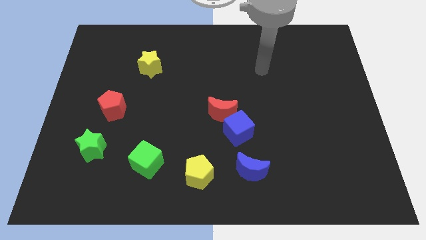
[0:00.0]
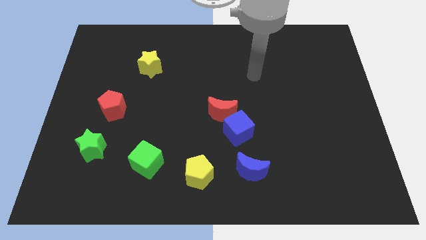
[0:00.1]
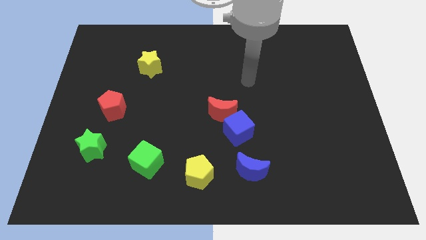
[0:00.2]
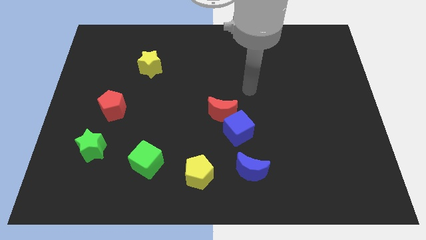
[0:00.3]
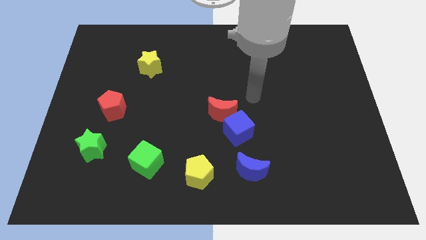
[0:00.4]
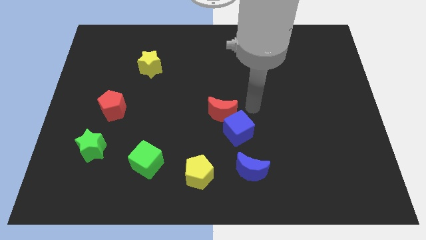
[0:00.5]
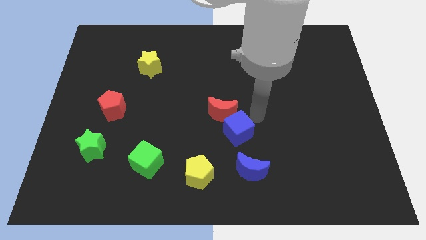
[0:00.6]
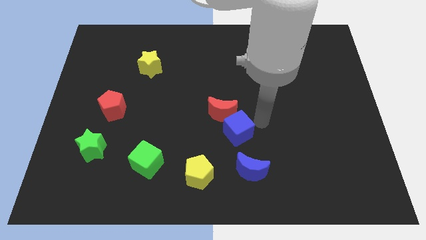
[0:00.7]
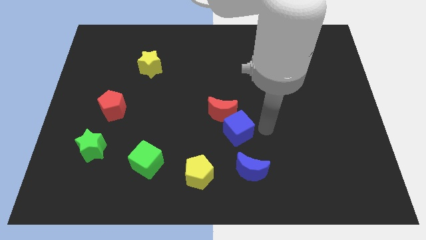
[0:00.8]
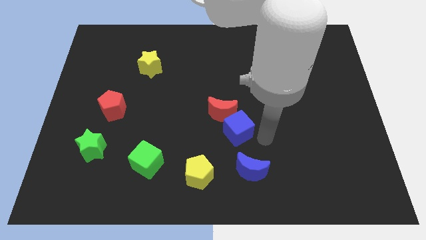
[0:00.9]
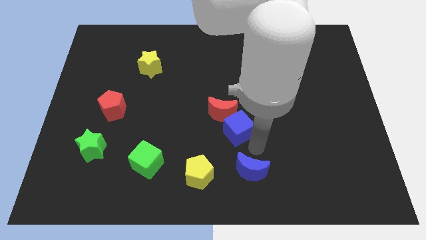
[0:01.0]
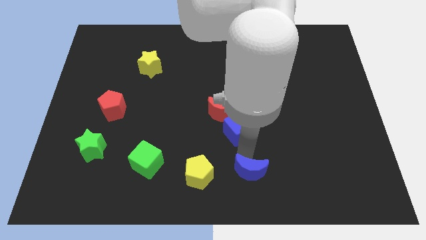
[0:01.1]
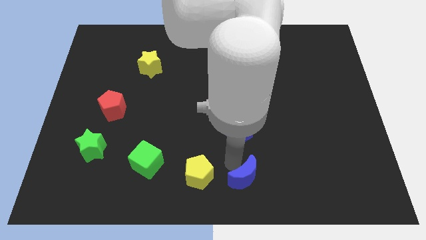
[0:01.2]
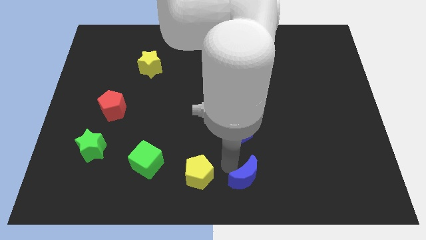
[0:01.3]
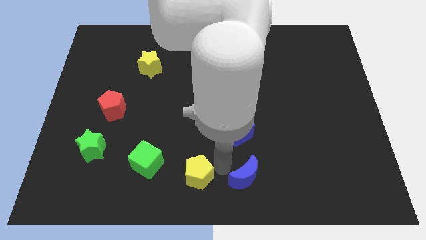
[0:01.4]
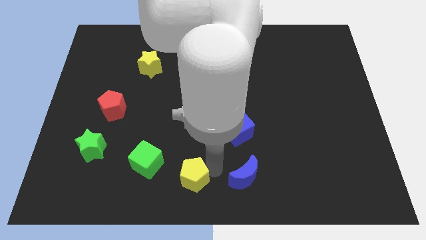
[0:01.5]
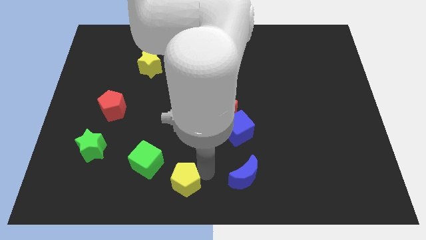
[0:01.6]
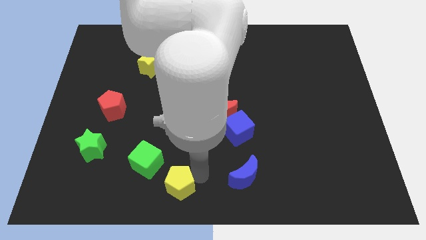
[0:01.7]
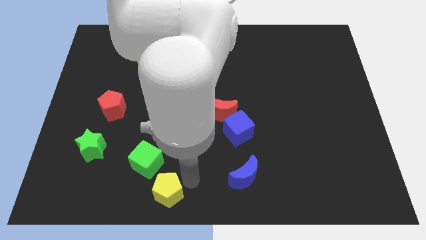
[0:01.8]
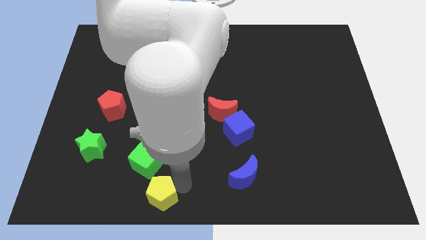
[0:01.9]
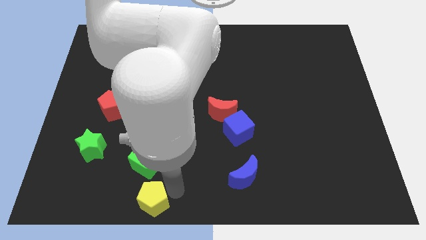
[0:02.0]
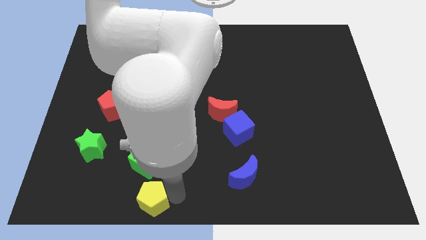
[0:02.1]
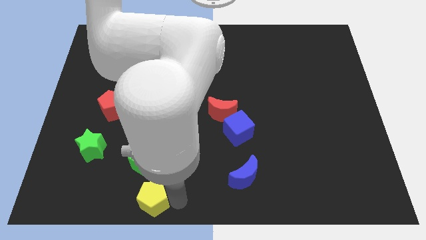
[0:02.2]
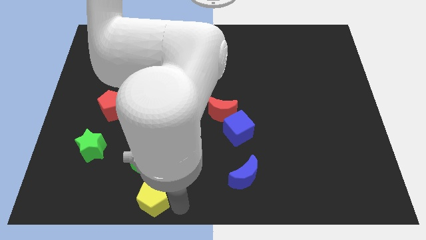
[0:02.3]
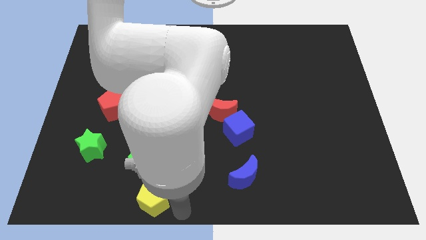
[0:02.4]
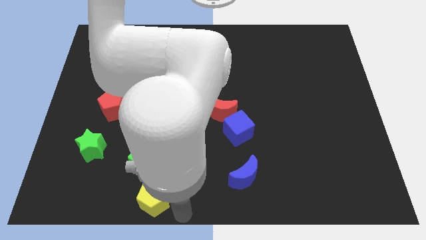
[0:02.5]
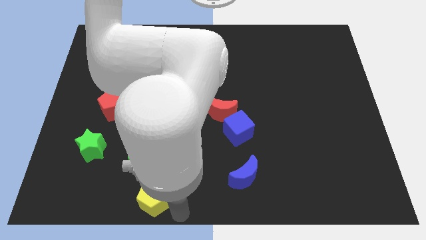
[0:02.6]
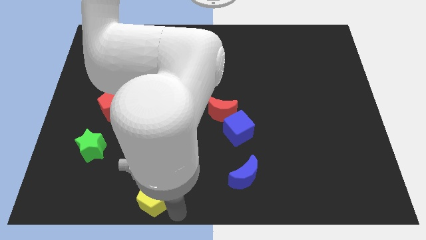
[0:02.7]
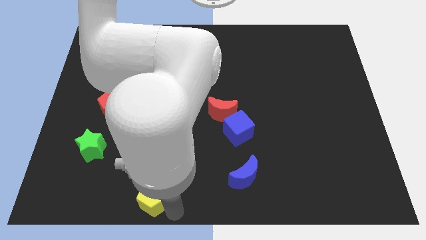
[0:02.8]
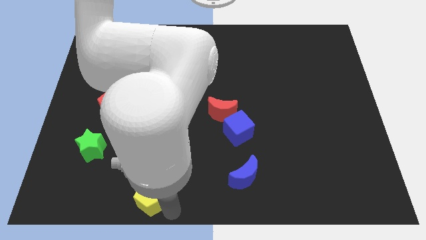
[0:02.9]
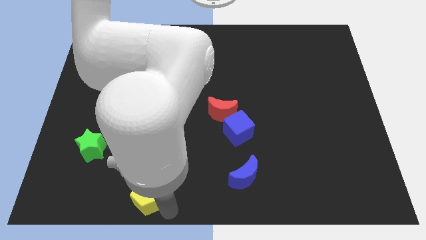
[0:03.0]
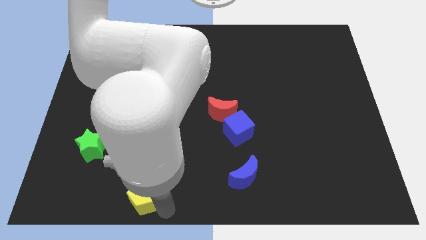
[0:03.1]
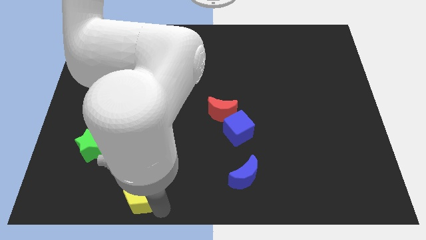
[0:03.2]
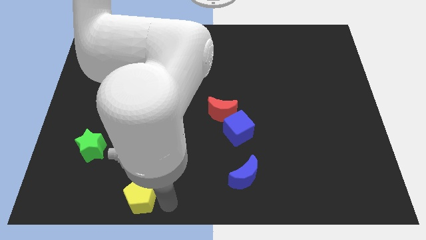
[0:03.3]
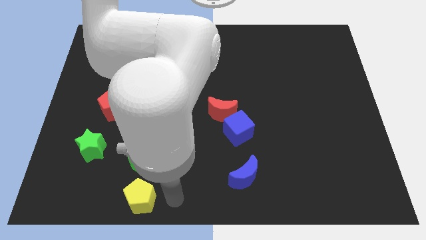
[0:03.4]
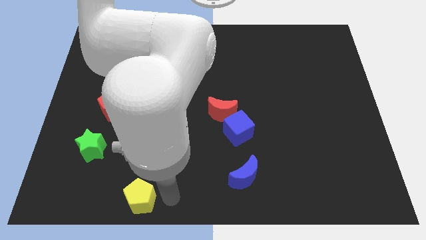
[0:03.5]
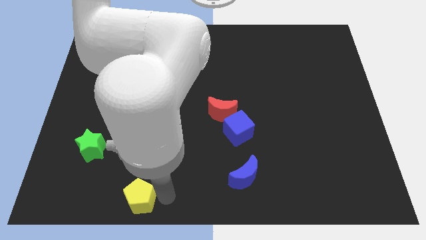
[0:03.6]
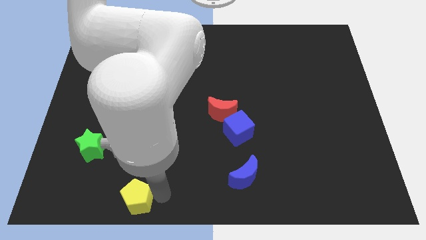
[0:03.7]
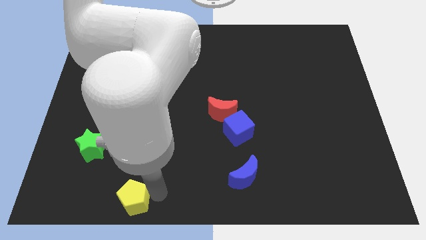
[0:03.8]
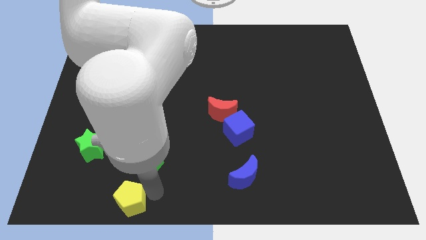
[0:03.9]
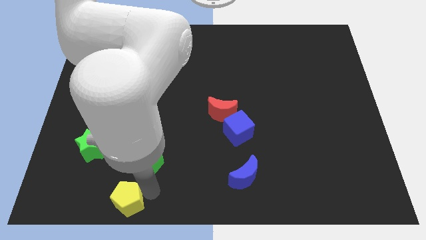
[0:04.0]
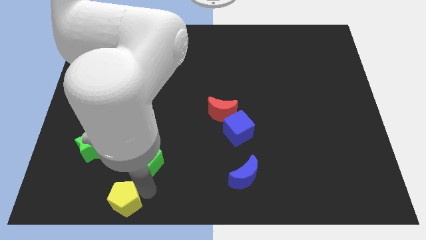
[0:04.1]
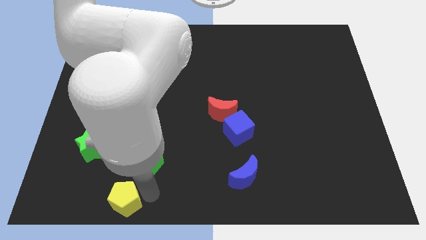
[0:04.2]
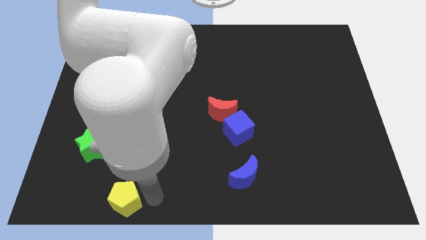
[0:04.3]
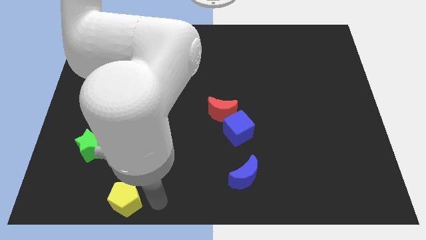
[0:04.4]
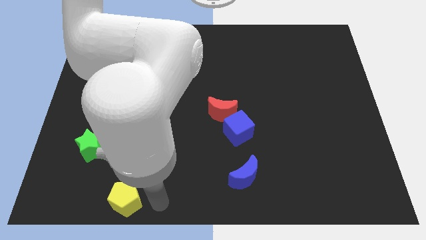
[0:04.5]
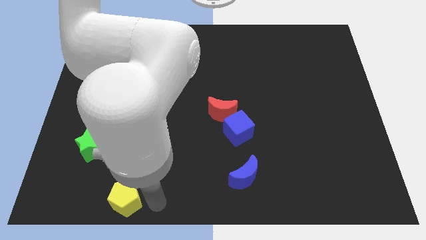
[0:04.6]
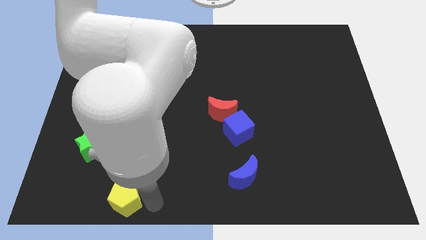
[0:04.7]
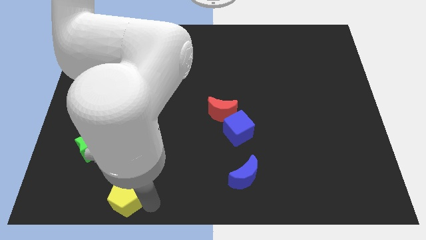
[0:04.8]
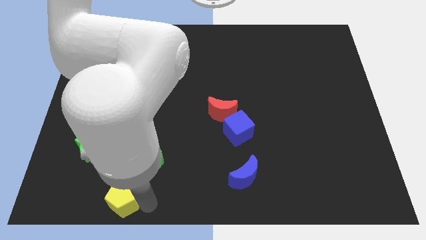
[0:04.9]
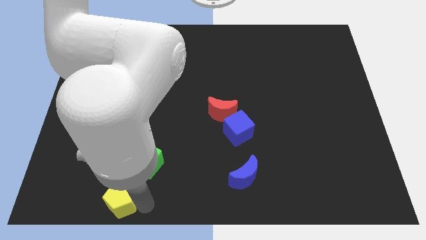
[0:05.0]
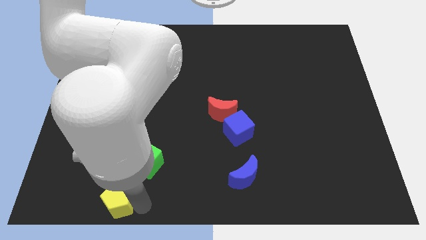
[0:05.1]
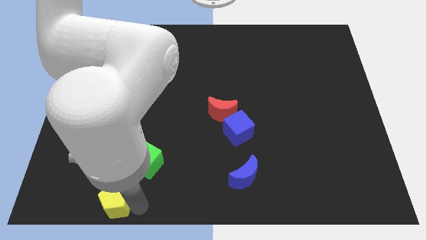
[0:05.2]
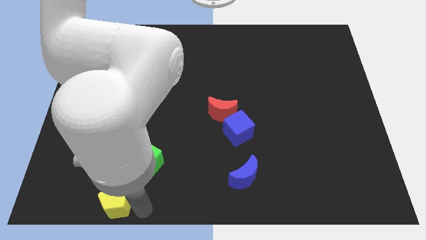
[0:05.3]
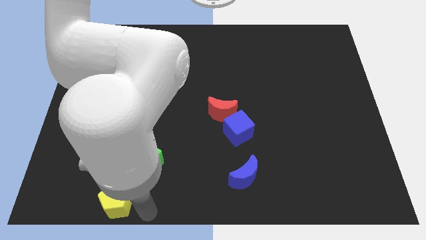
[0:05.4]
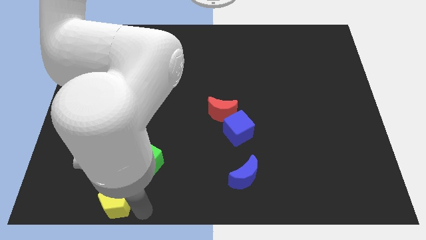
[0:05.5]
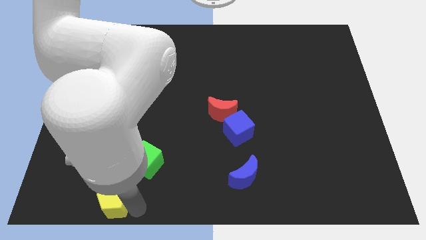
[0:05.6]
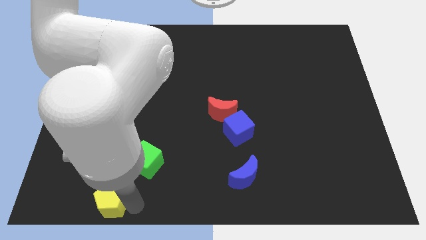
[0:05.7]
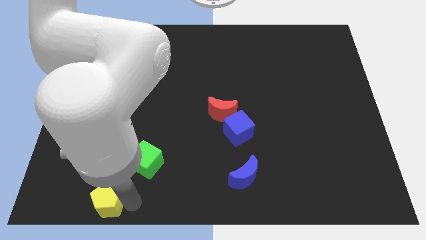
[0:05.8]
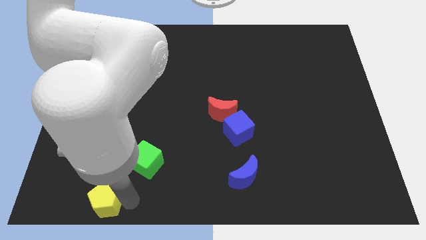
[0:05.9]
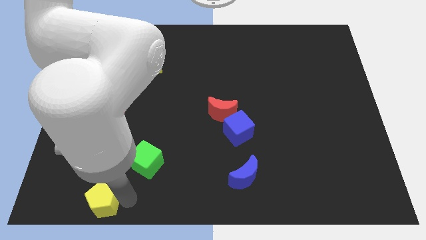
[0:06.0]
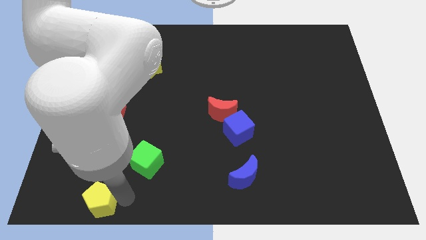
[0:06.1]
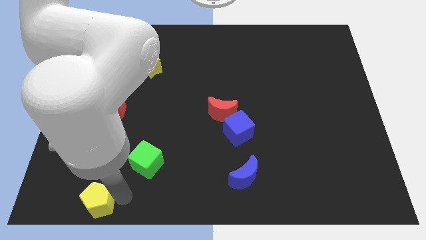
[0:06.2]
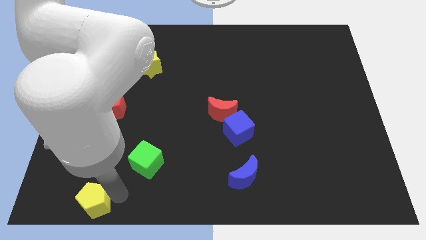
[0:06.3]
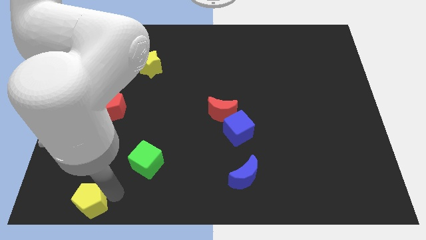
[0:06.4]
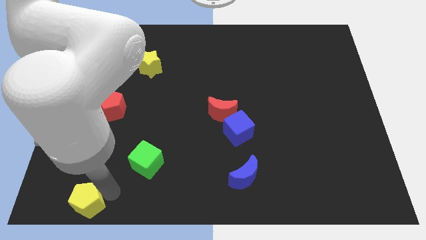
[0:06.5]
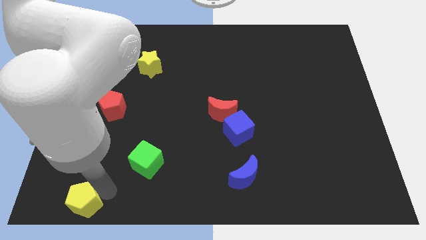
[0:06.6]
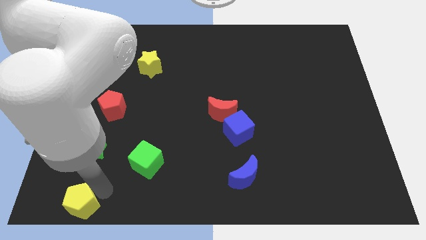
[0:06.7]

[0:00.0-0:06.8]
put the yellow pentagon to the bottom left corner

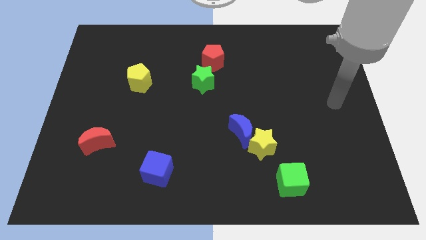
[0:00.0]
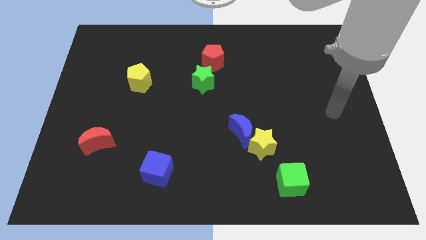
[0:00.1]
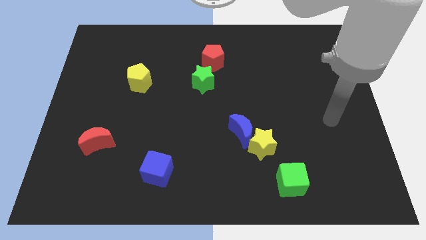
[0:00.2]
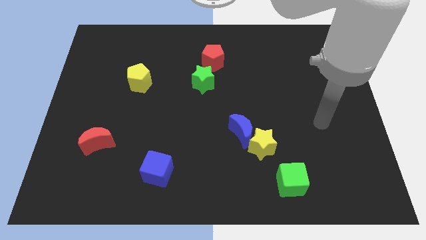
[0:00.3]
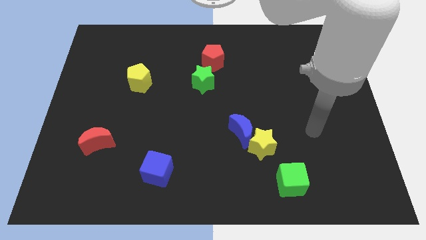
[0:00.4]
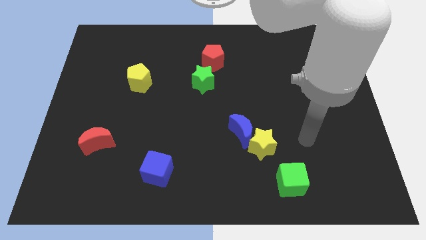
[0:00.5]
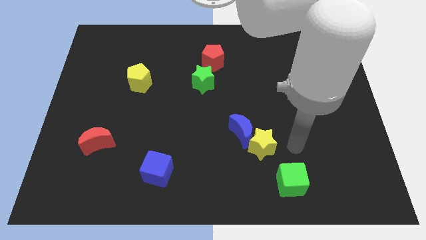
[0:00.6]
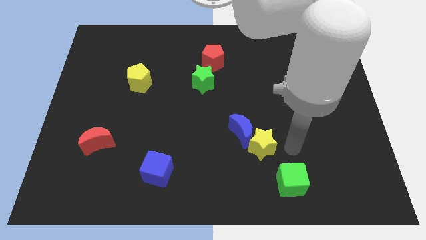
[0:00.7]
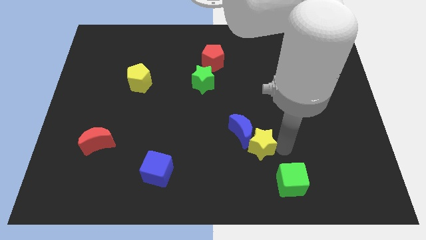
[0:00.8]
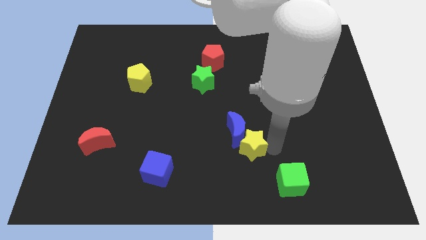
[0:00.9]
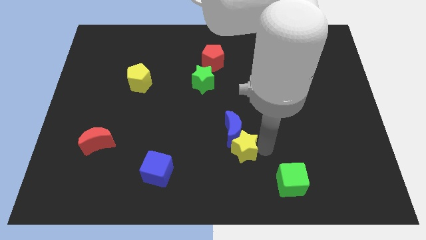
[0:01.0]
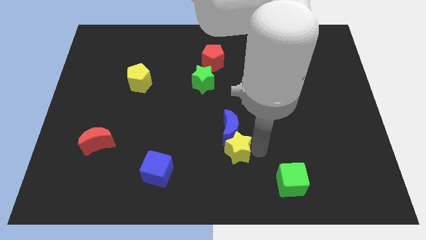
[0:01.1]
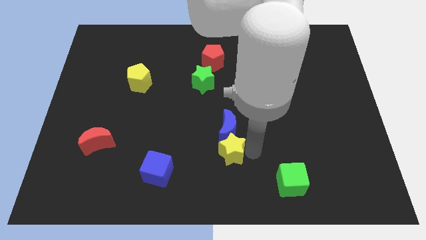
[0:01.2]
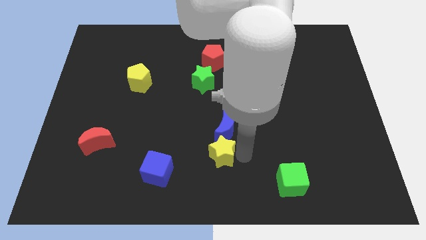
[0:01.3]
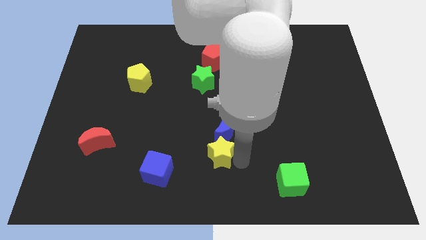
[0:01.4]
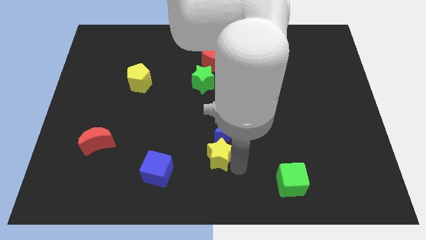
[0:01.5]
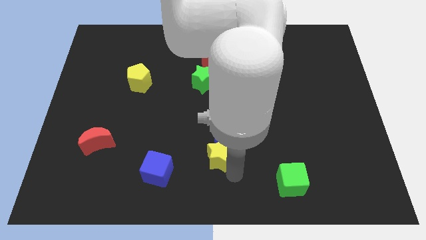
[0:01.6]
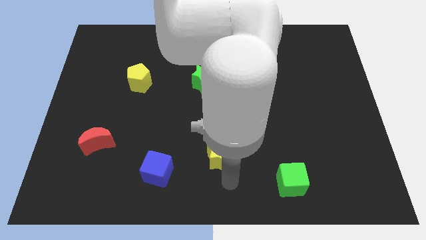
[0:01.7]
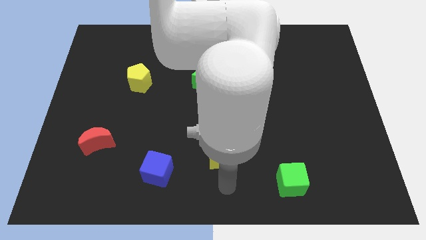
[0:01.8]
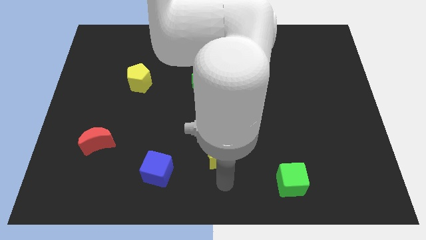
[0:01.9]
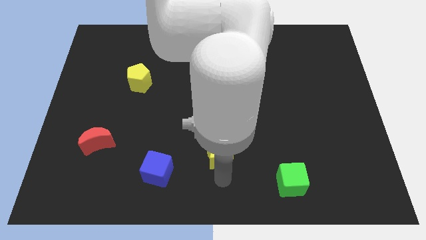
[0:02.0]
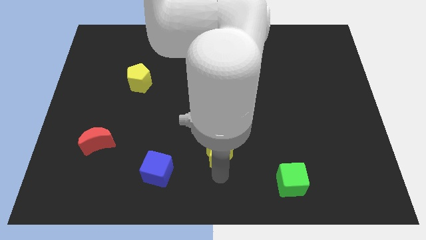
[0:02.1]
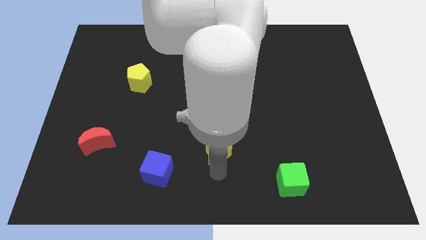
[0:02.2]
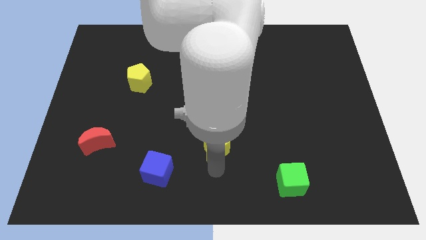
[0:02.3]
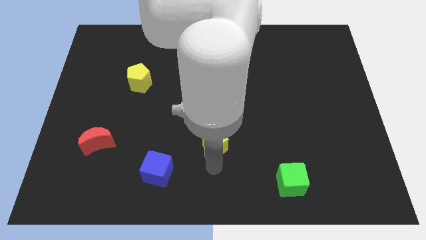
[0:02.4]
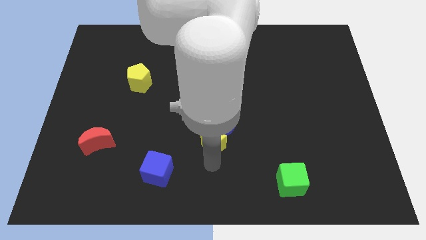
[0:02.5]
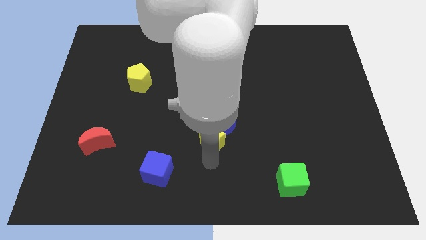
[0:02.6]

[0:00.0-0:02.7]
move the yellow star to the center
